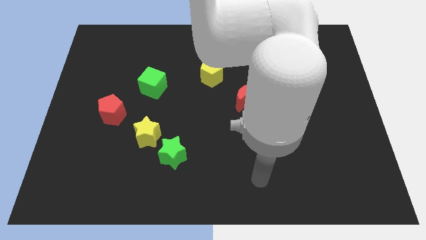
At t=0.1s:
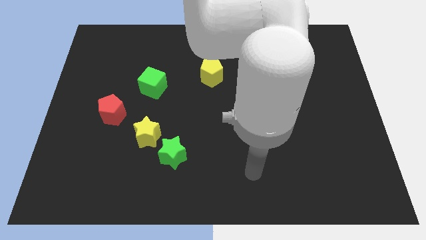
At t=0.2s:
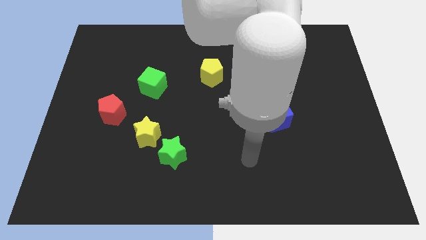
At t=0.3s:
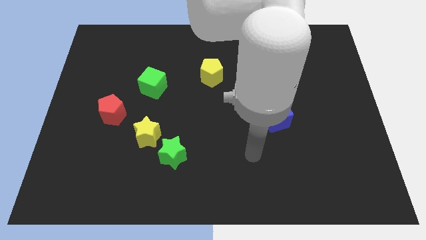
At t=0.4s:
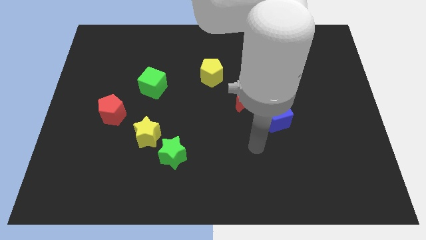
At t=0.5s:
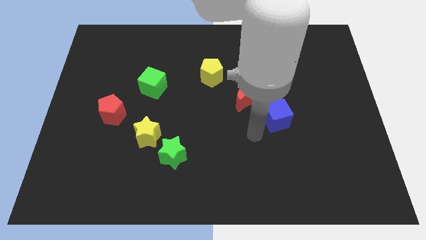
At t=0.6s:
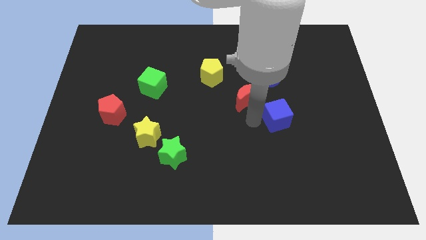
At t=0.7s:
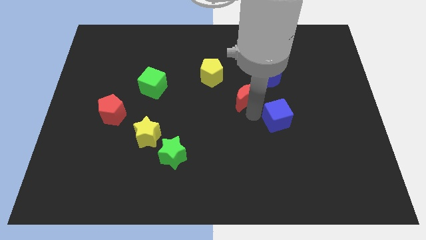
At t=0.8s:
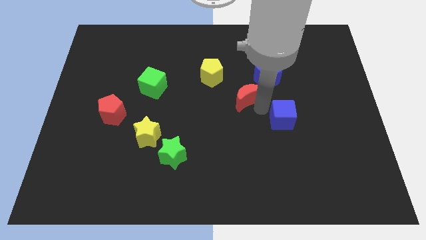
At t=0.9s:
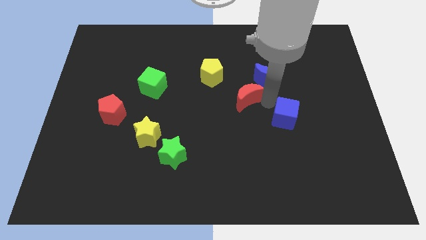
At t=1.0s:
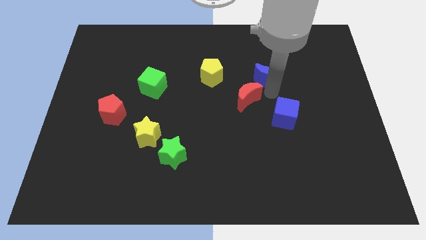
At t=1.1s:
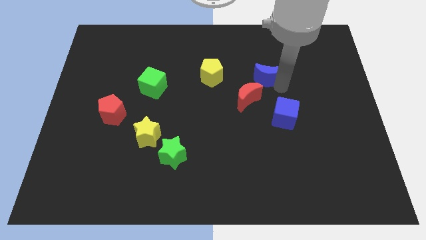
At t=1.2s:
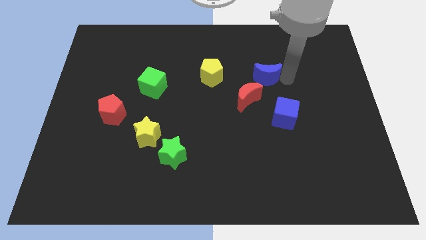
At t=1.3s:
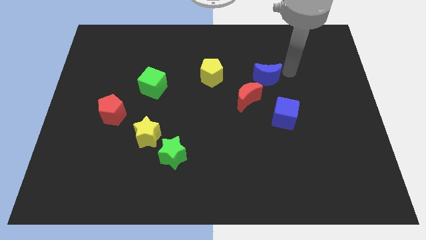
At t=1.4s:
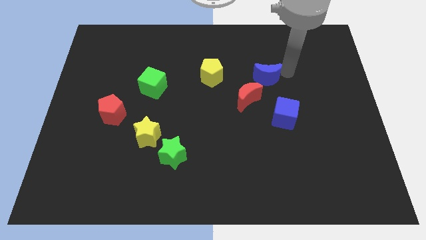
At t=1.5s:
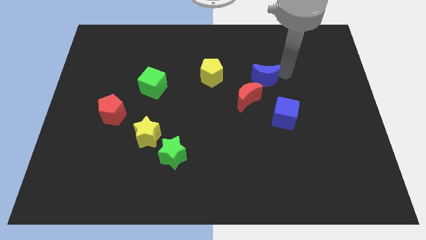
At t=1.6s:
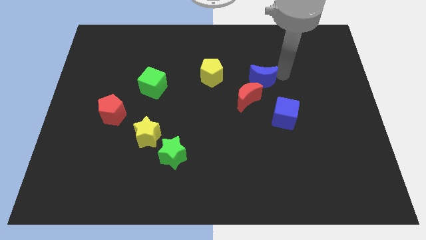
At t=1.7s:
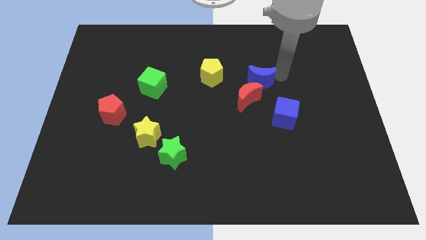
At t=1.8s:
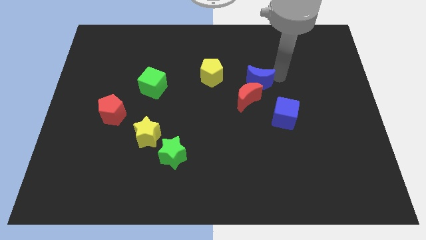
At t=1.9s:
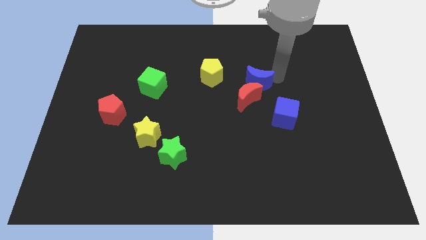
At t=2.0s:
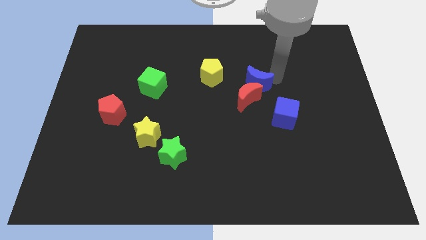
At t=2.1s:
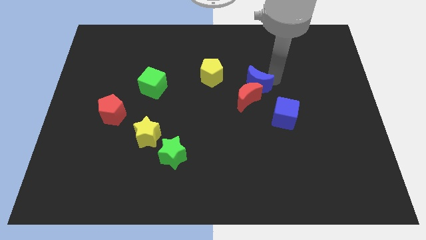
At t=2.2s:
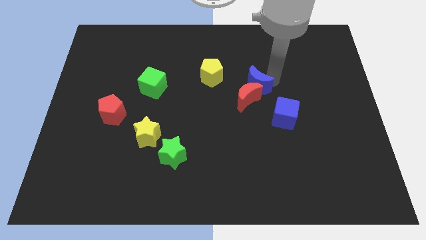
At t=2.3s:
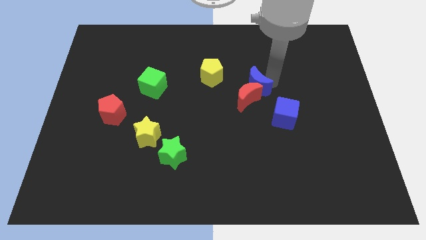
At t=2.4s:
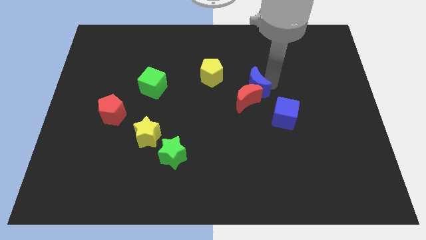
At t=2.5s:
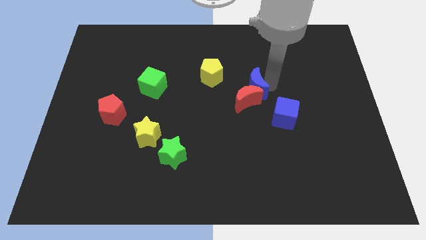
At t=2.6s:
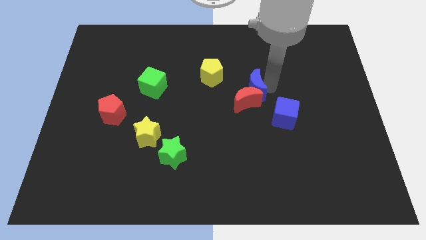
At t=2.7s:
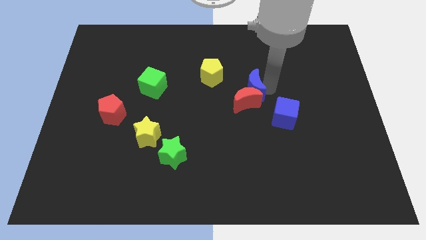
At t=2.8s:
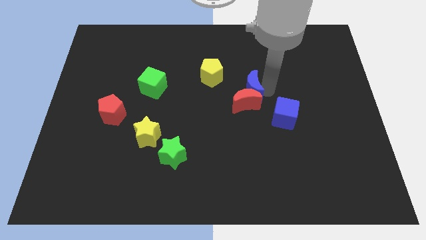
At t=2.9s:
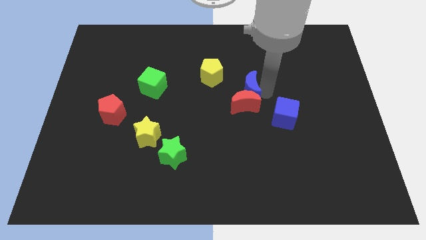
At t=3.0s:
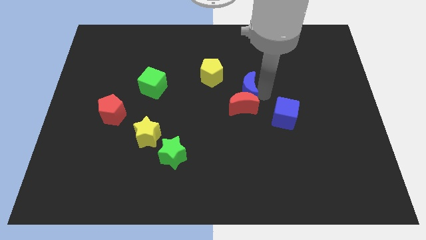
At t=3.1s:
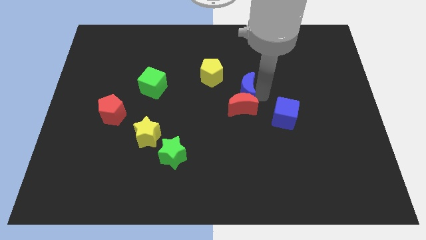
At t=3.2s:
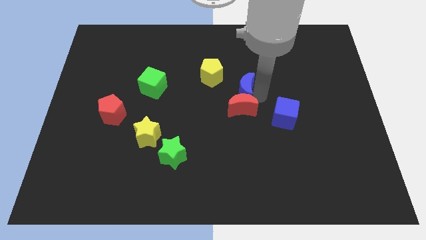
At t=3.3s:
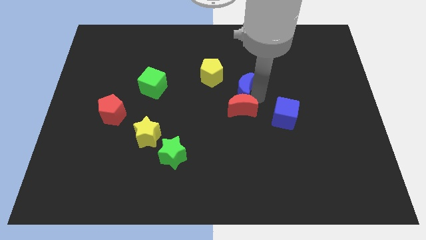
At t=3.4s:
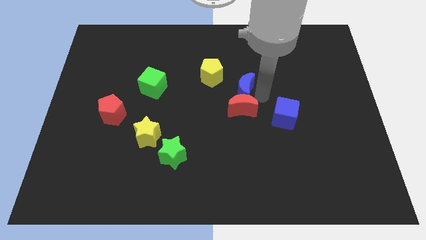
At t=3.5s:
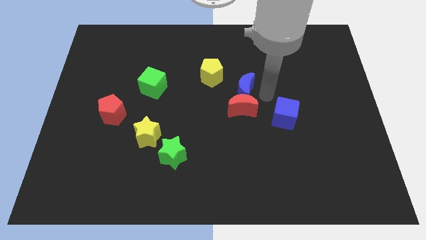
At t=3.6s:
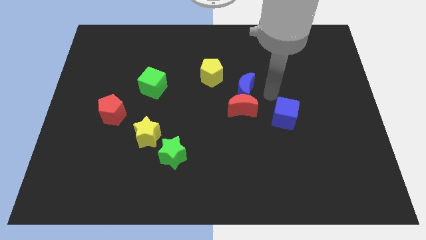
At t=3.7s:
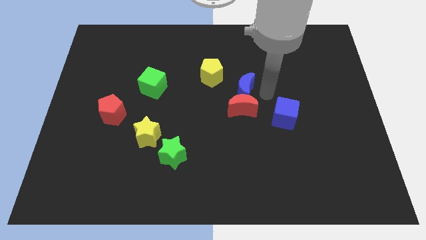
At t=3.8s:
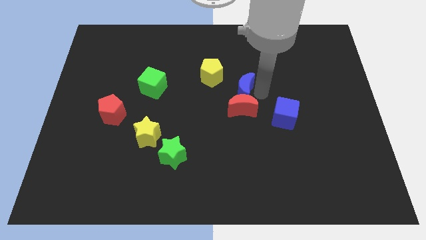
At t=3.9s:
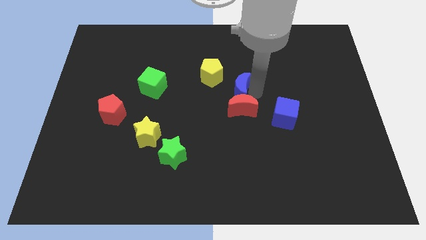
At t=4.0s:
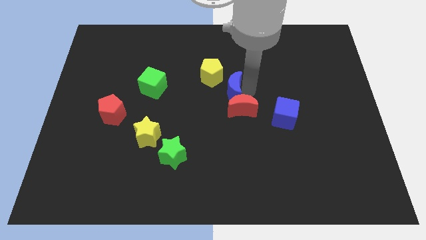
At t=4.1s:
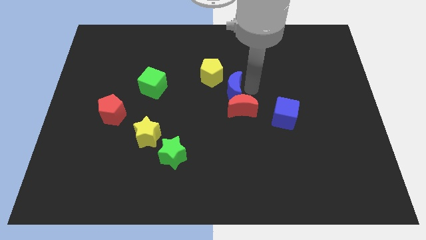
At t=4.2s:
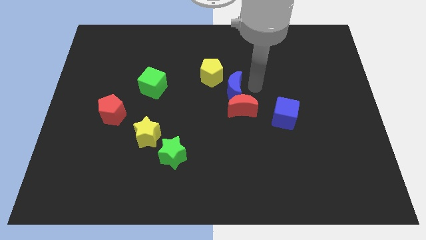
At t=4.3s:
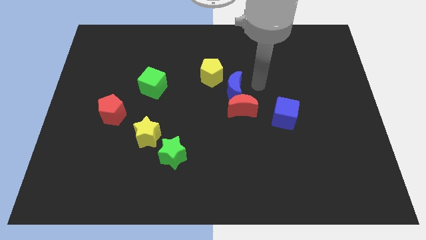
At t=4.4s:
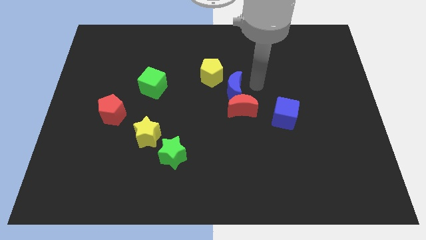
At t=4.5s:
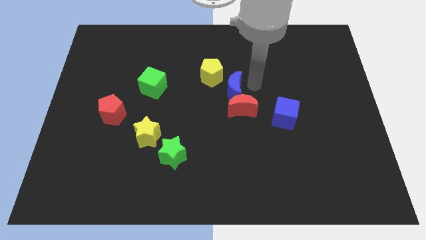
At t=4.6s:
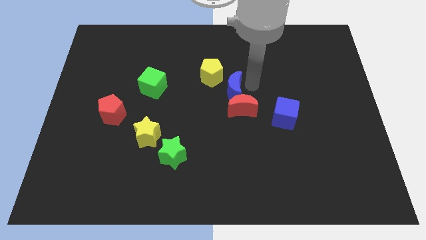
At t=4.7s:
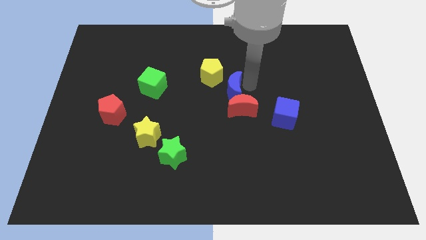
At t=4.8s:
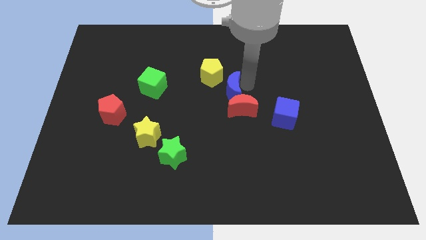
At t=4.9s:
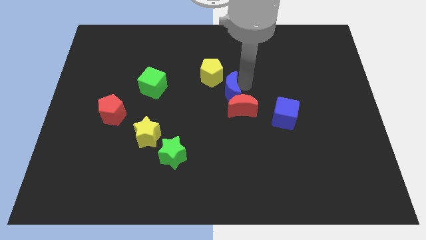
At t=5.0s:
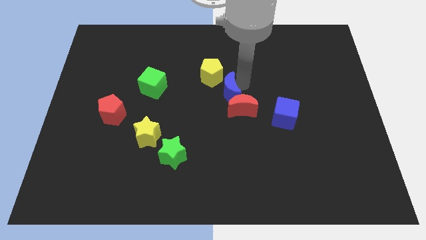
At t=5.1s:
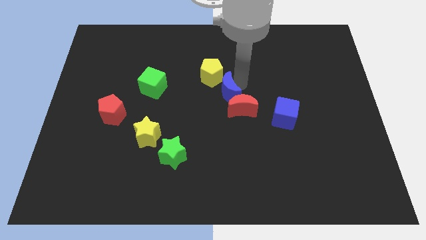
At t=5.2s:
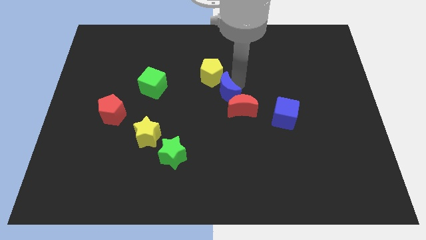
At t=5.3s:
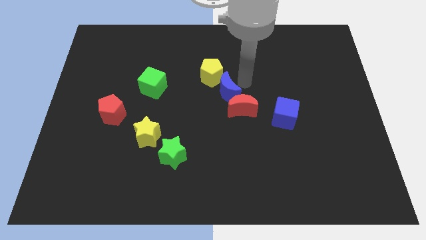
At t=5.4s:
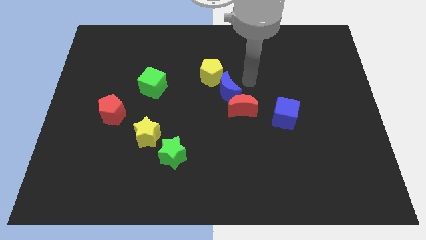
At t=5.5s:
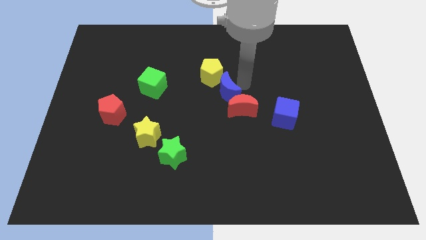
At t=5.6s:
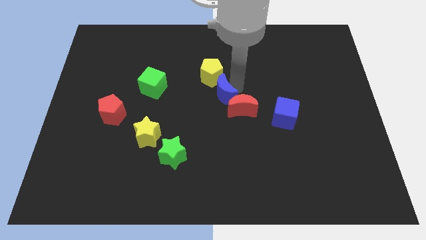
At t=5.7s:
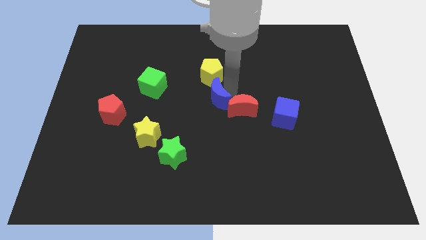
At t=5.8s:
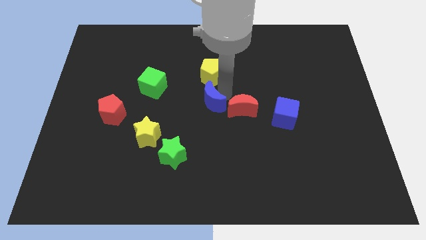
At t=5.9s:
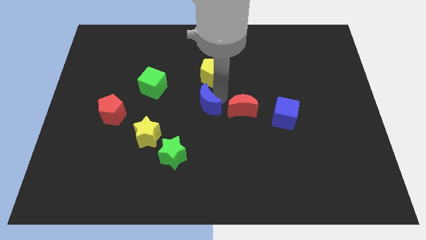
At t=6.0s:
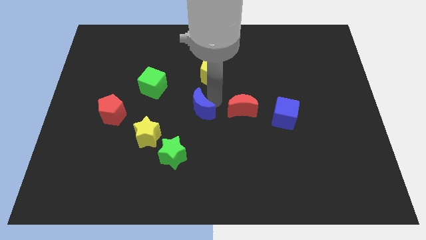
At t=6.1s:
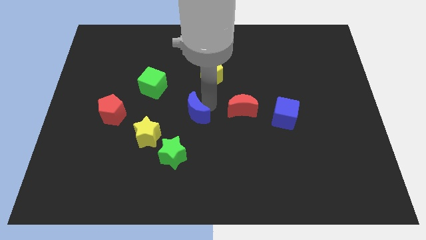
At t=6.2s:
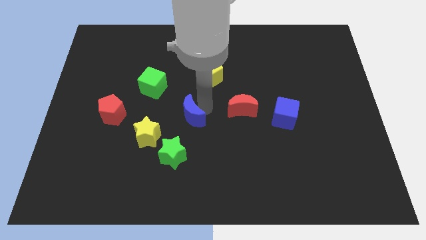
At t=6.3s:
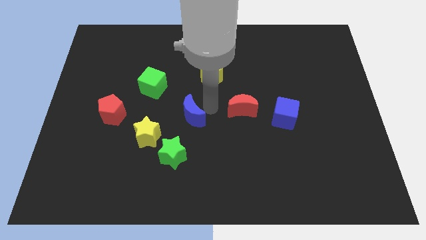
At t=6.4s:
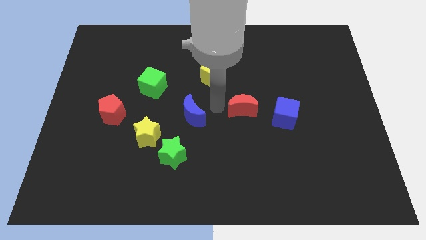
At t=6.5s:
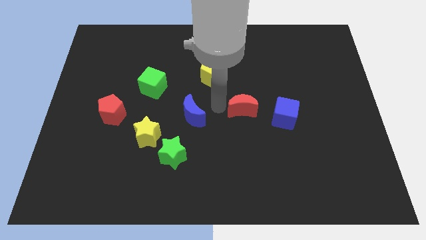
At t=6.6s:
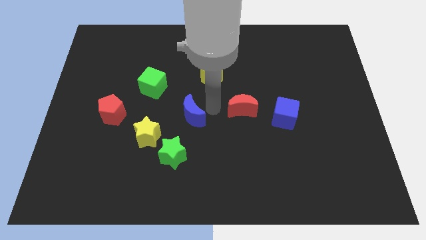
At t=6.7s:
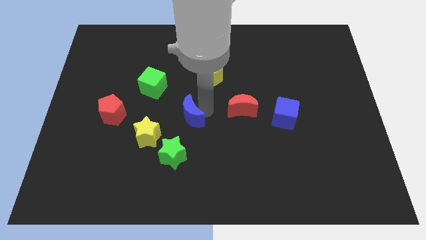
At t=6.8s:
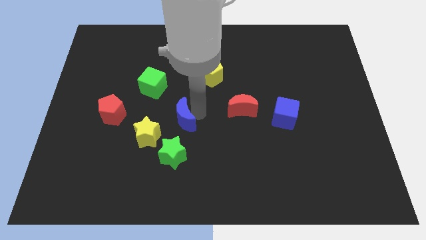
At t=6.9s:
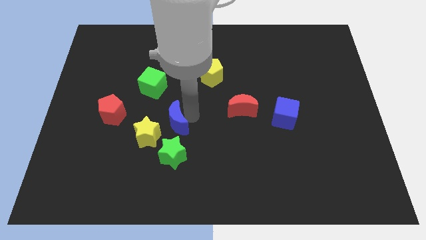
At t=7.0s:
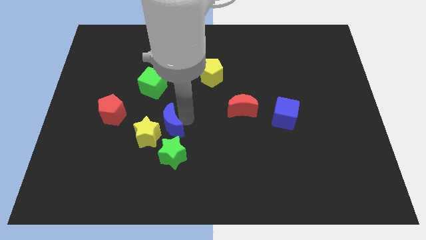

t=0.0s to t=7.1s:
slide the blue moon towards the yellow star
